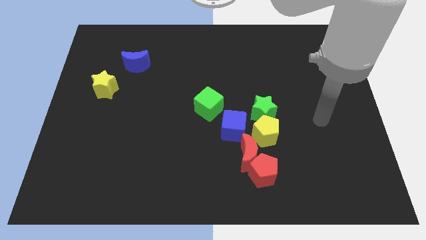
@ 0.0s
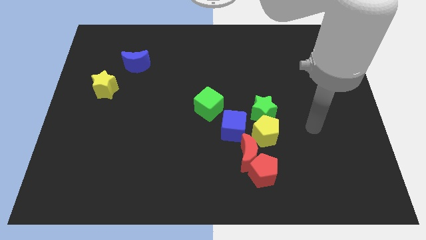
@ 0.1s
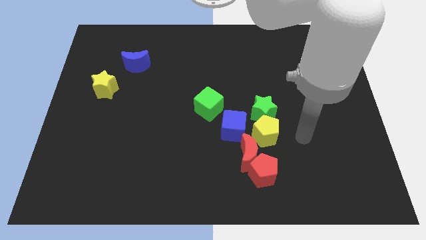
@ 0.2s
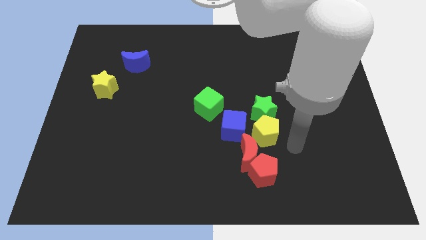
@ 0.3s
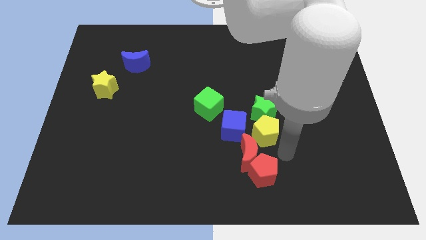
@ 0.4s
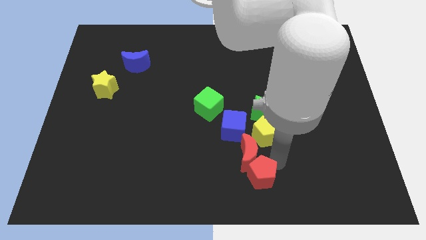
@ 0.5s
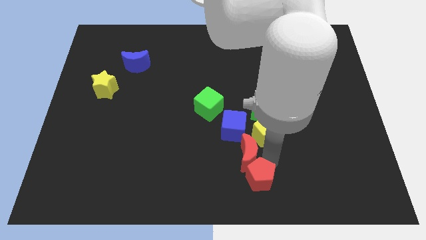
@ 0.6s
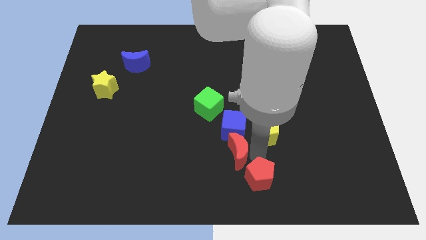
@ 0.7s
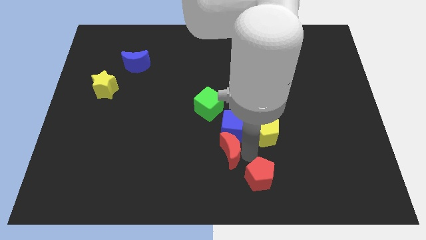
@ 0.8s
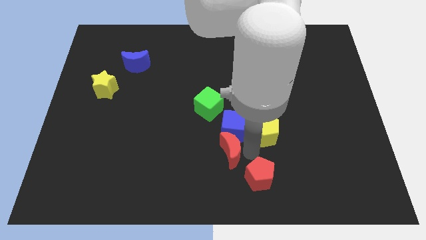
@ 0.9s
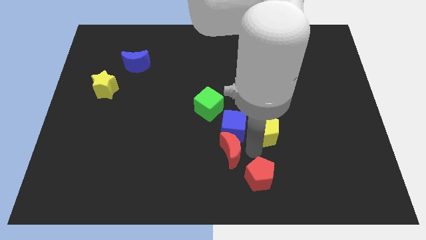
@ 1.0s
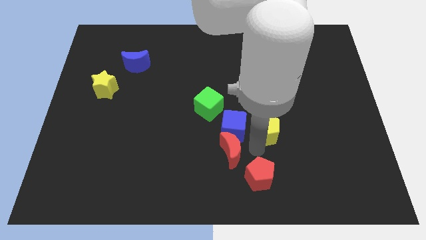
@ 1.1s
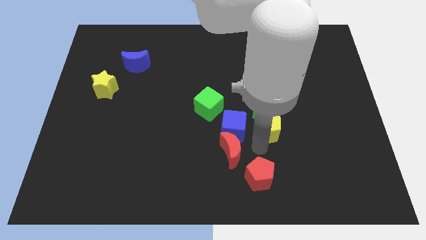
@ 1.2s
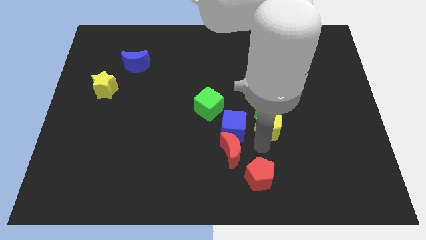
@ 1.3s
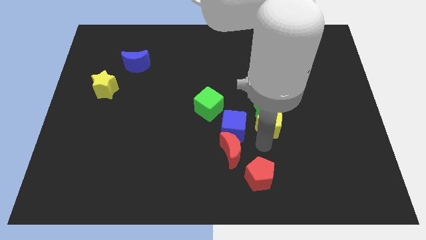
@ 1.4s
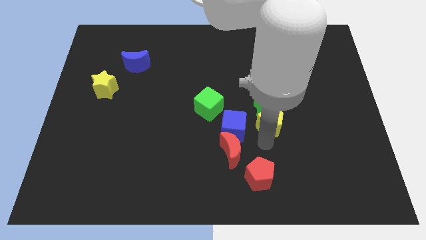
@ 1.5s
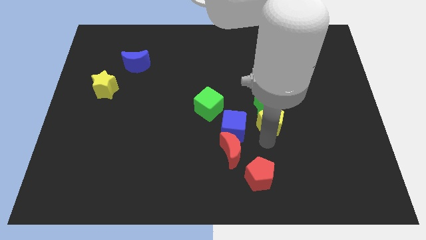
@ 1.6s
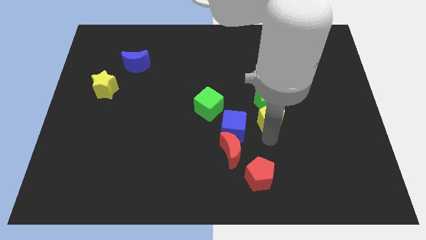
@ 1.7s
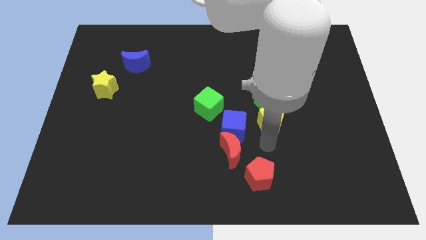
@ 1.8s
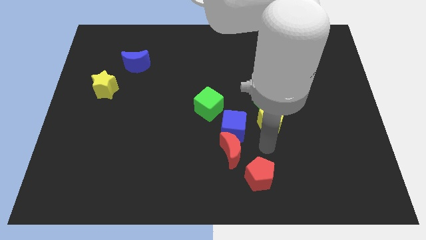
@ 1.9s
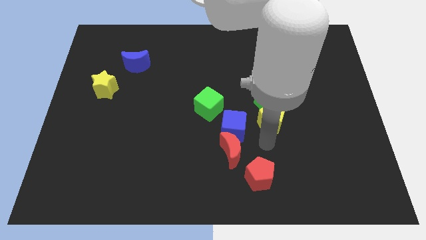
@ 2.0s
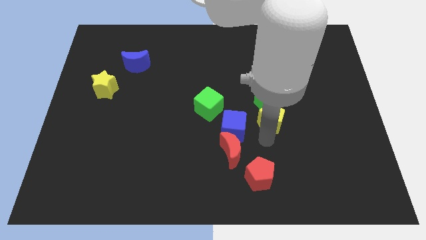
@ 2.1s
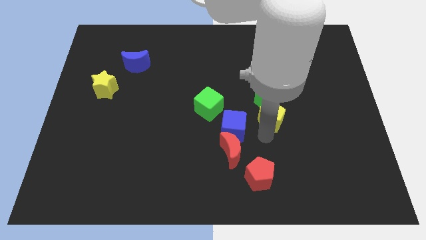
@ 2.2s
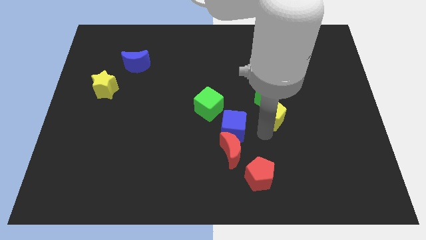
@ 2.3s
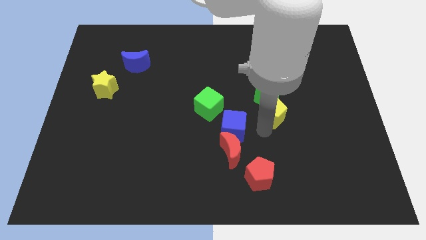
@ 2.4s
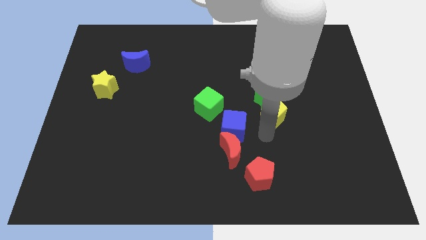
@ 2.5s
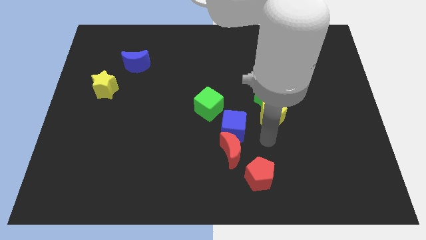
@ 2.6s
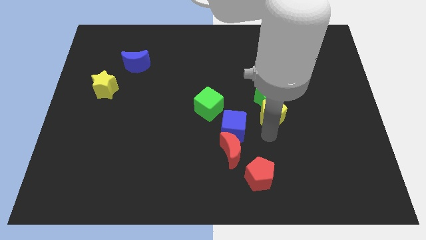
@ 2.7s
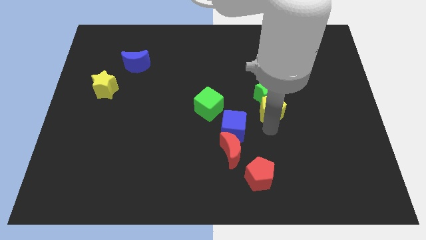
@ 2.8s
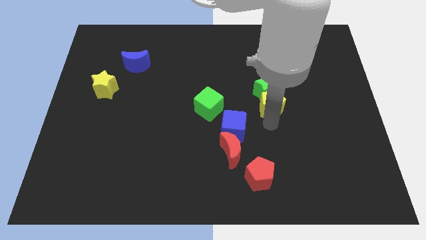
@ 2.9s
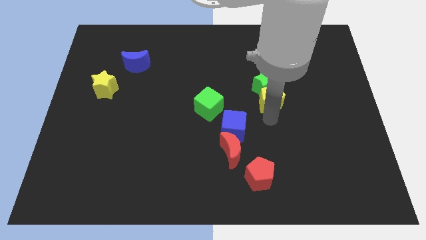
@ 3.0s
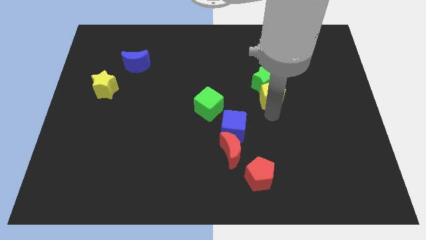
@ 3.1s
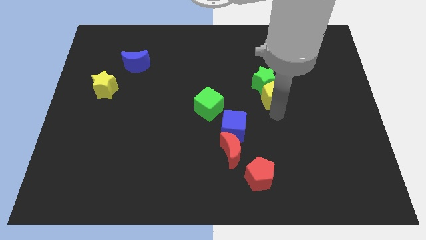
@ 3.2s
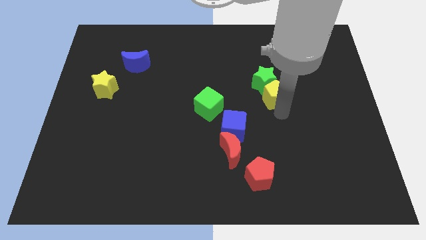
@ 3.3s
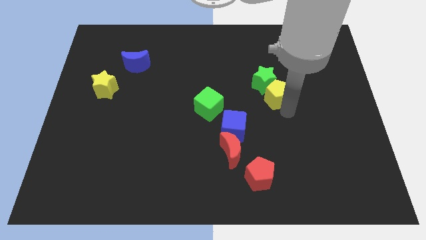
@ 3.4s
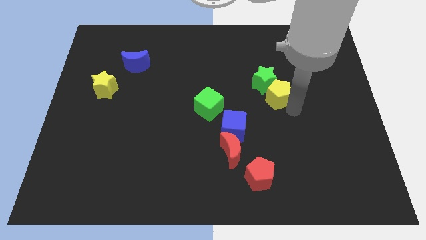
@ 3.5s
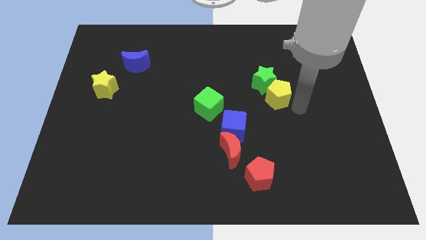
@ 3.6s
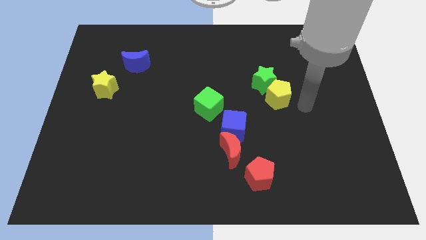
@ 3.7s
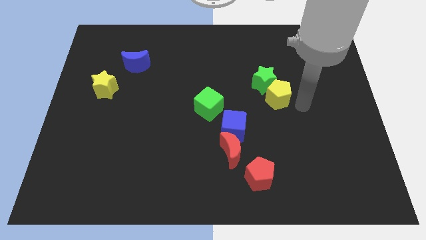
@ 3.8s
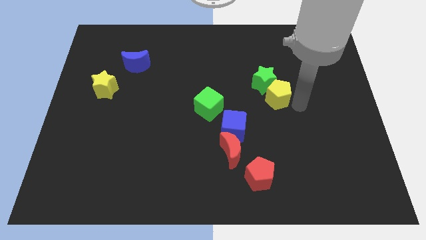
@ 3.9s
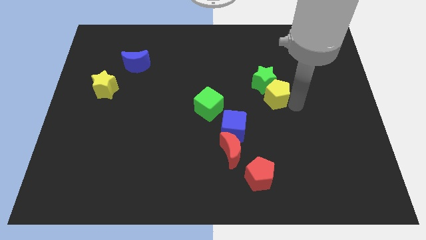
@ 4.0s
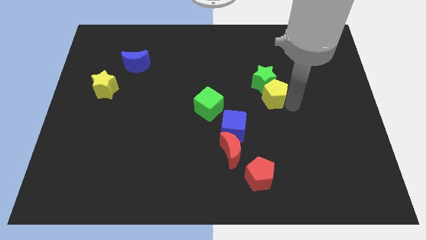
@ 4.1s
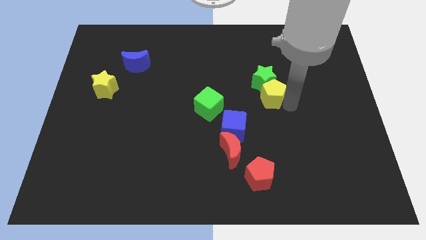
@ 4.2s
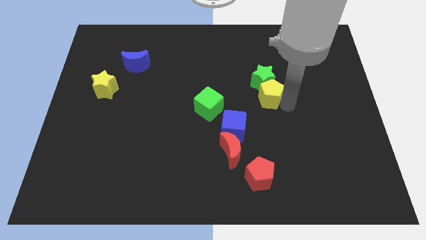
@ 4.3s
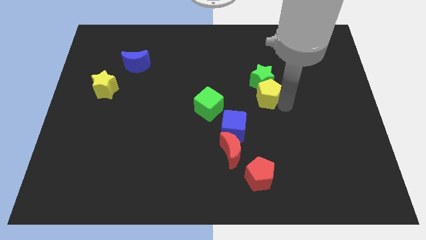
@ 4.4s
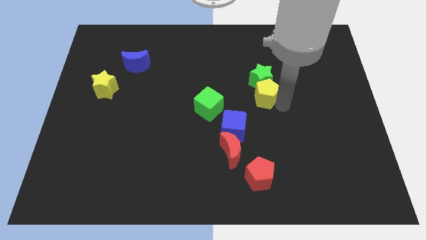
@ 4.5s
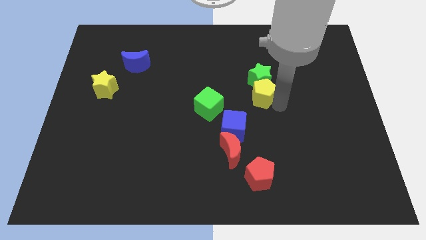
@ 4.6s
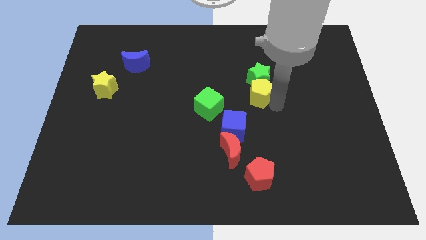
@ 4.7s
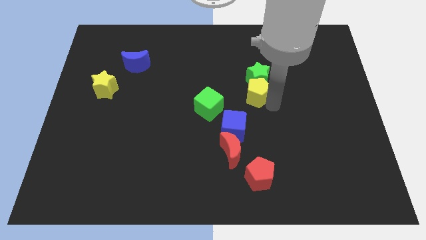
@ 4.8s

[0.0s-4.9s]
slightly move the yellow pentagon up and to the left

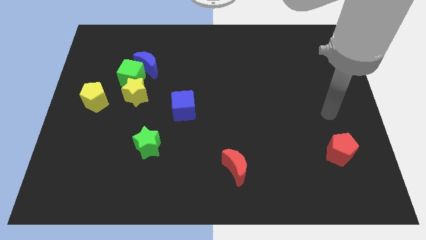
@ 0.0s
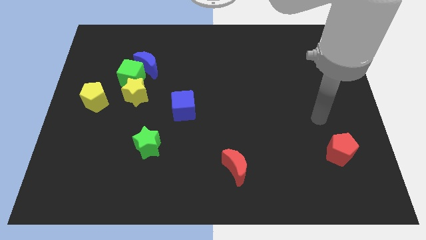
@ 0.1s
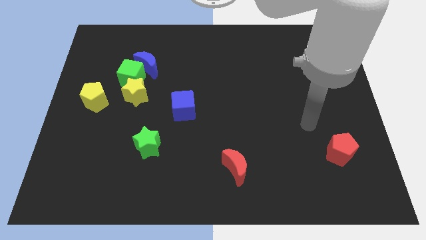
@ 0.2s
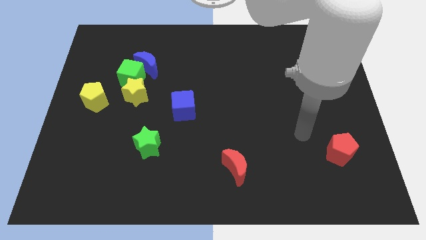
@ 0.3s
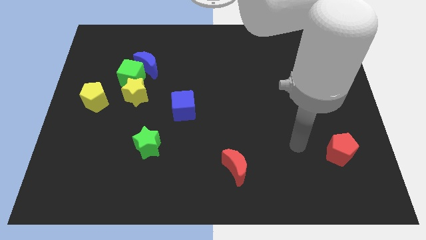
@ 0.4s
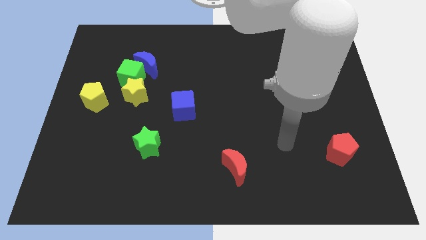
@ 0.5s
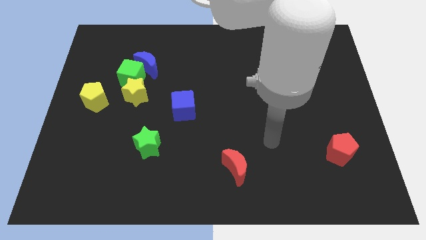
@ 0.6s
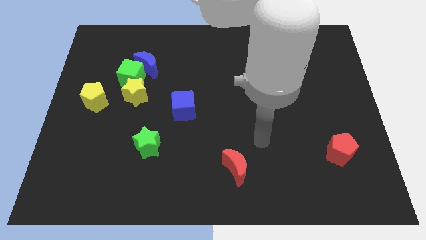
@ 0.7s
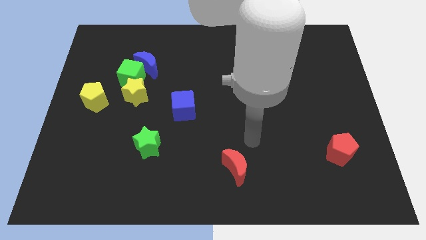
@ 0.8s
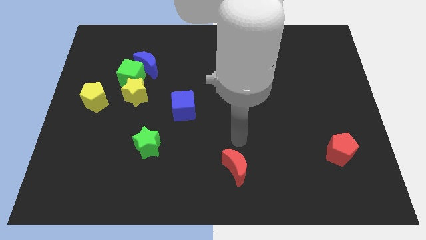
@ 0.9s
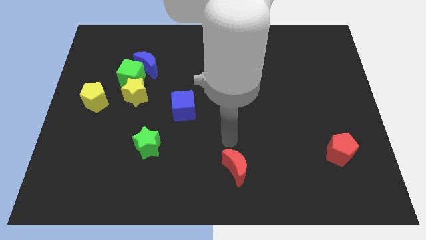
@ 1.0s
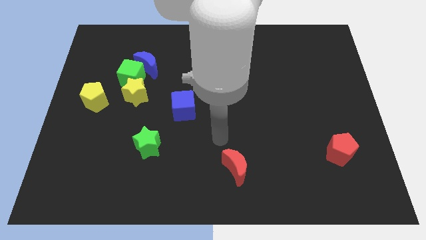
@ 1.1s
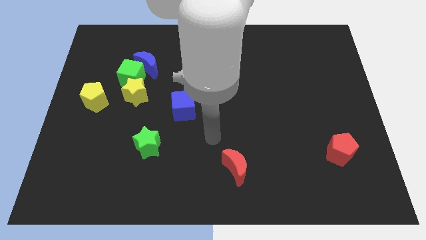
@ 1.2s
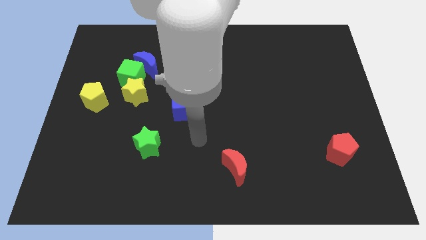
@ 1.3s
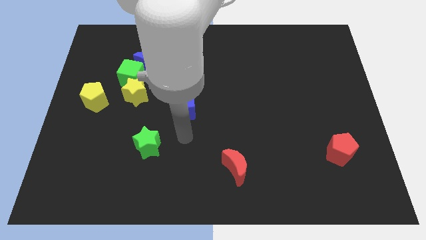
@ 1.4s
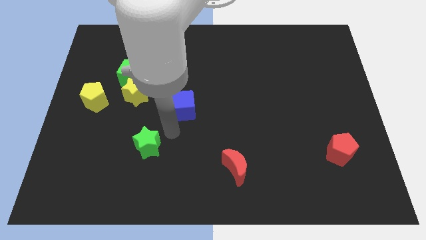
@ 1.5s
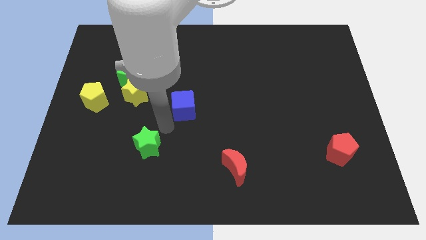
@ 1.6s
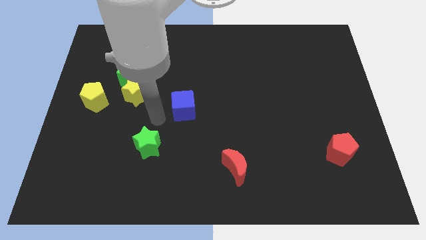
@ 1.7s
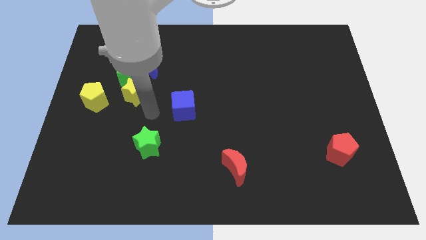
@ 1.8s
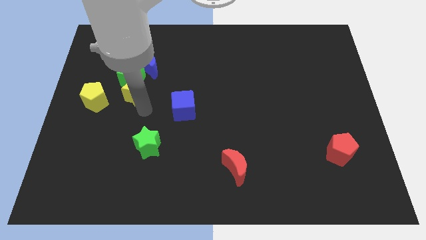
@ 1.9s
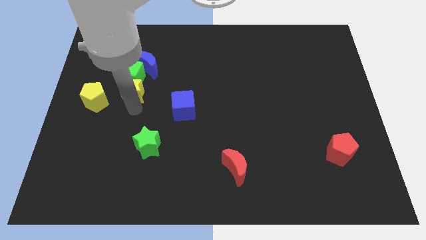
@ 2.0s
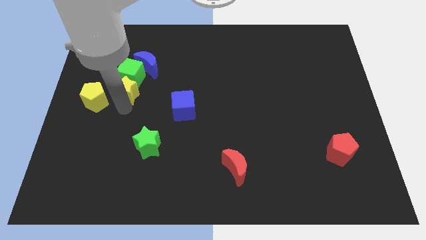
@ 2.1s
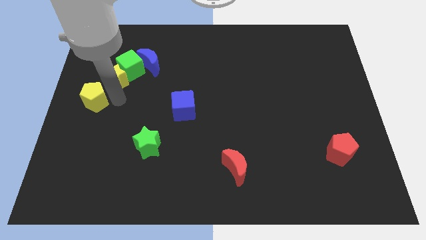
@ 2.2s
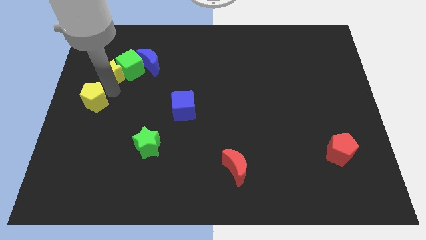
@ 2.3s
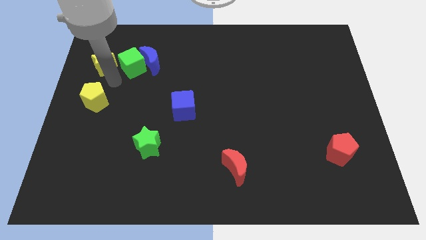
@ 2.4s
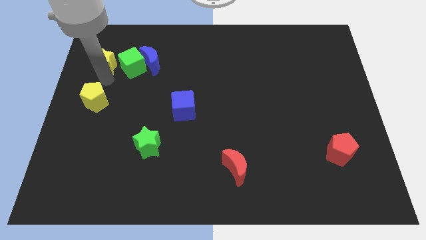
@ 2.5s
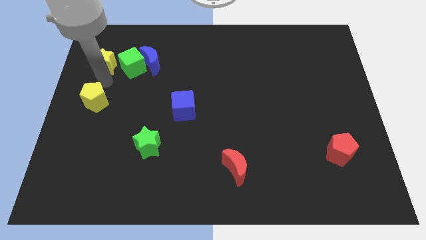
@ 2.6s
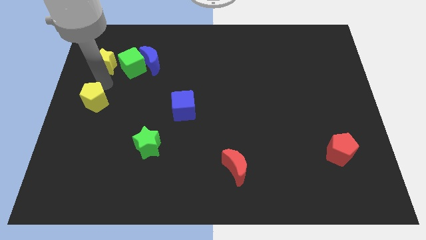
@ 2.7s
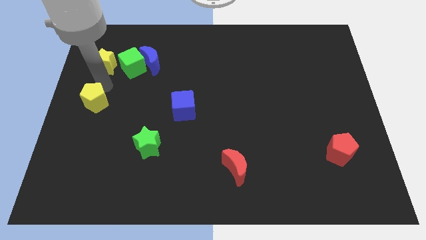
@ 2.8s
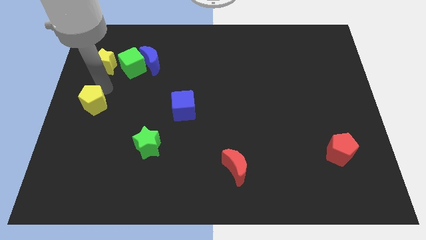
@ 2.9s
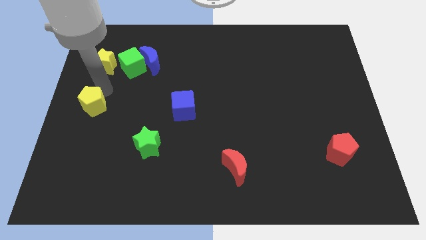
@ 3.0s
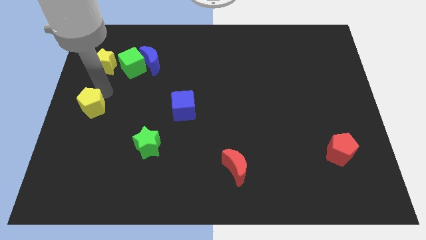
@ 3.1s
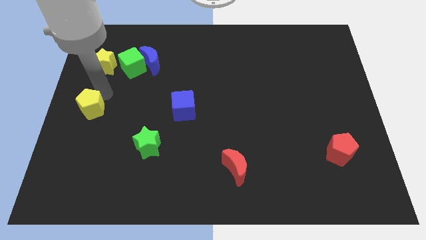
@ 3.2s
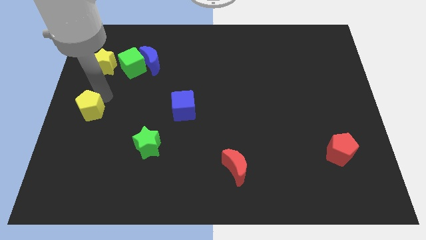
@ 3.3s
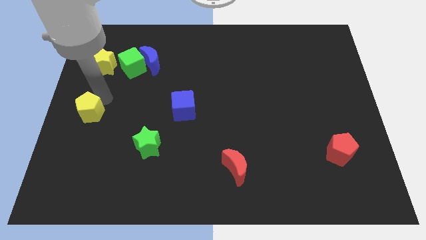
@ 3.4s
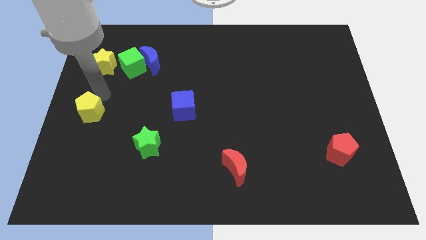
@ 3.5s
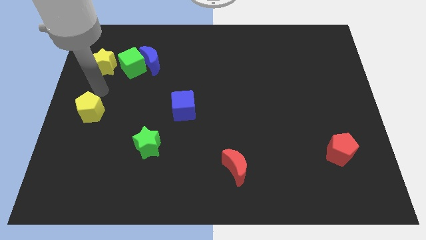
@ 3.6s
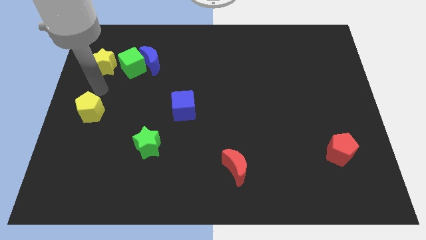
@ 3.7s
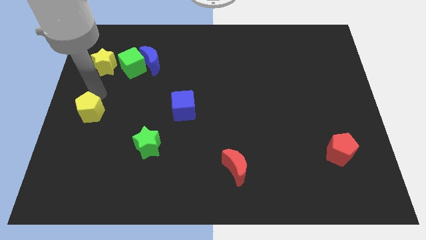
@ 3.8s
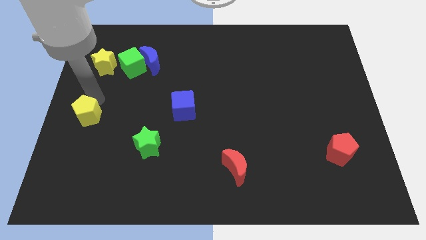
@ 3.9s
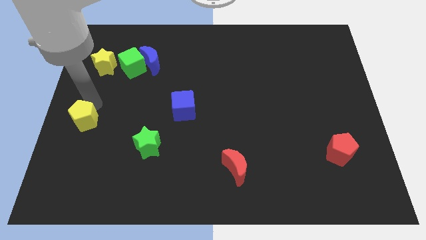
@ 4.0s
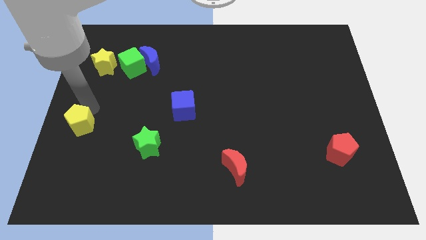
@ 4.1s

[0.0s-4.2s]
slightly slide the yellow pentagon downwards
